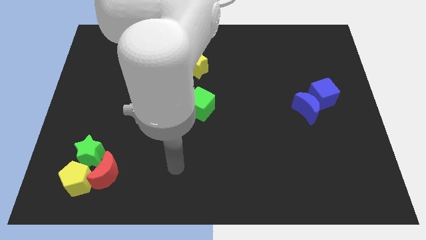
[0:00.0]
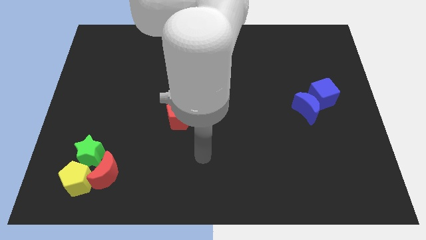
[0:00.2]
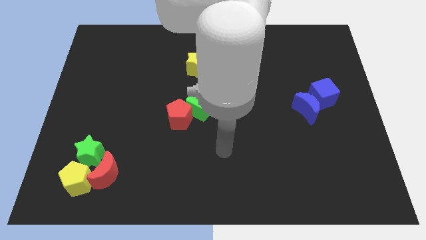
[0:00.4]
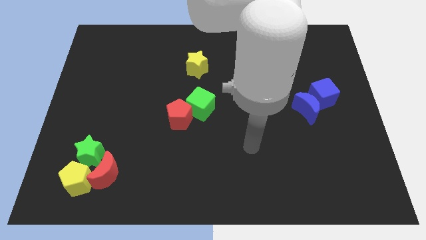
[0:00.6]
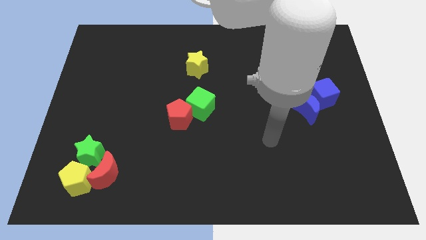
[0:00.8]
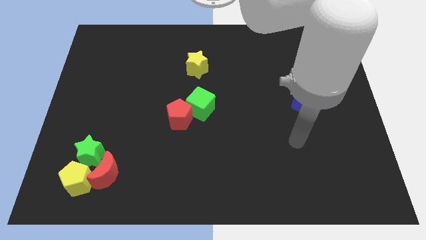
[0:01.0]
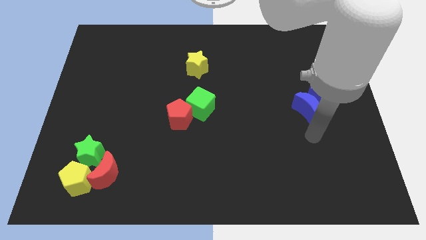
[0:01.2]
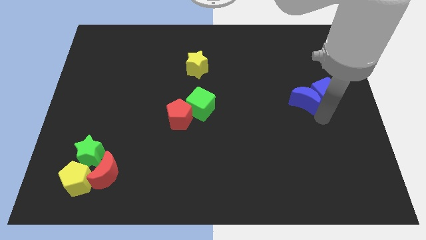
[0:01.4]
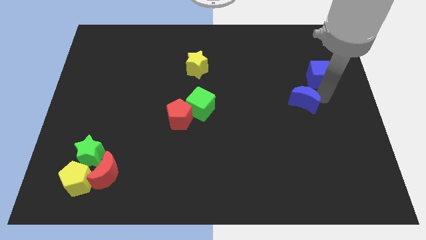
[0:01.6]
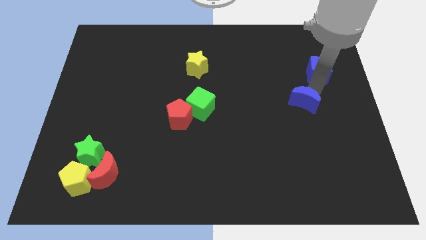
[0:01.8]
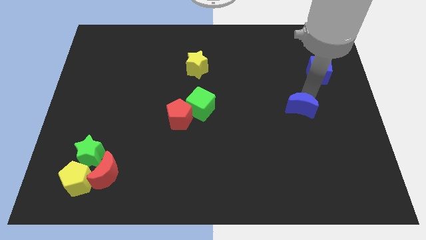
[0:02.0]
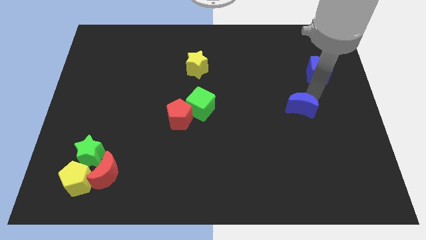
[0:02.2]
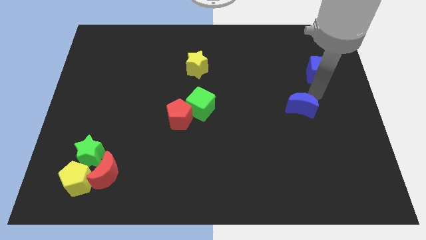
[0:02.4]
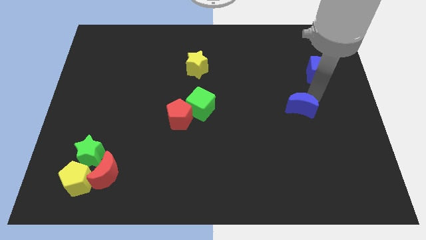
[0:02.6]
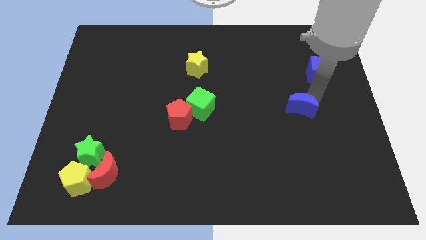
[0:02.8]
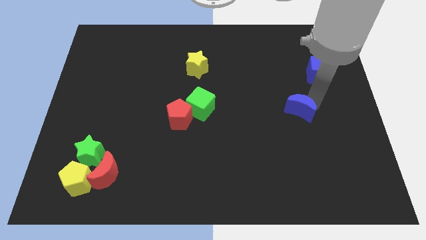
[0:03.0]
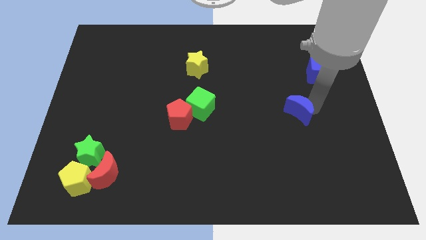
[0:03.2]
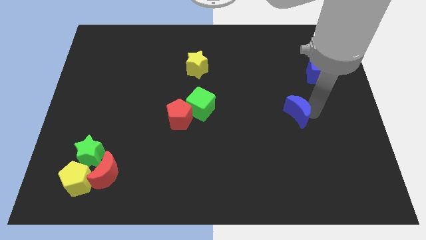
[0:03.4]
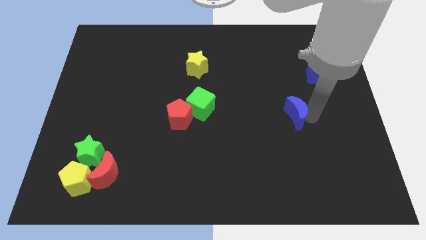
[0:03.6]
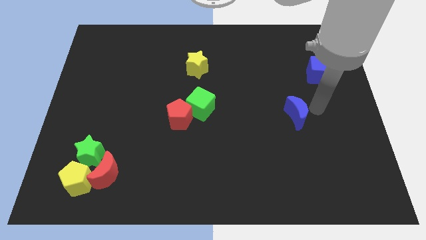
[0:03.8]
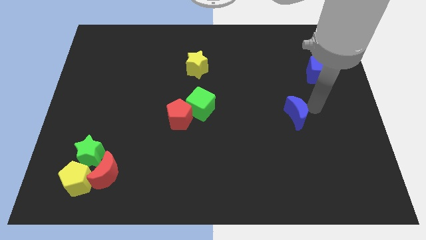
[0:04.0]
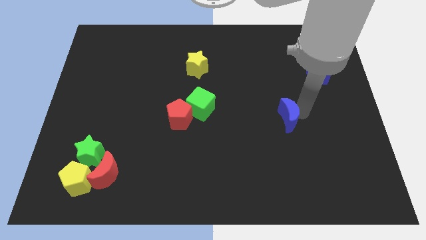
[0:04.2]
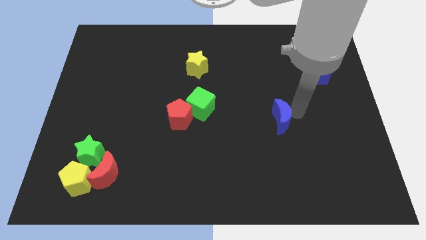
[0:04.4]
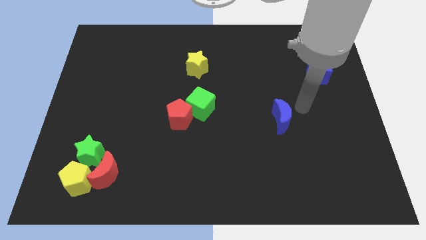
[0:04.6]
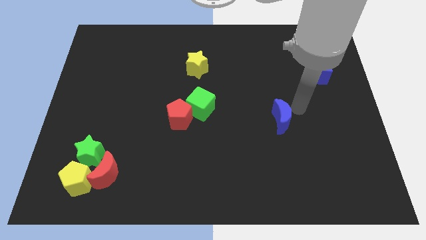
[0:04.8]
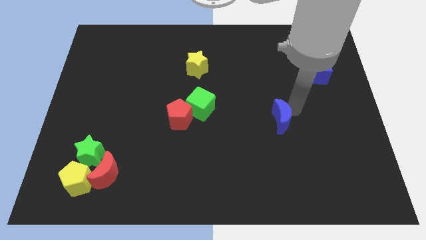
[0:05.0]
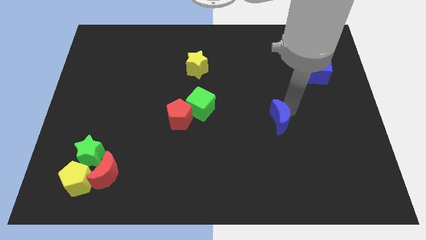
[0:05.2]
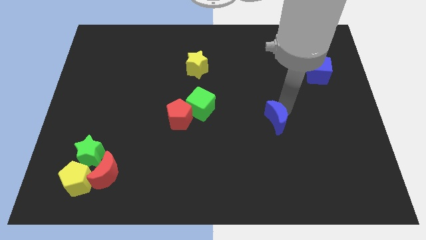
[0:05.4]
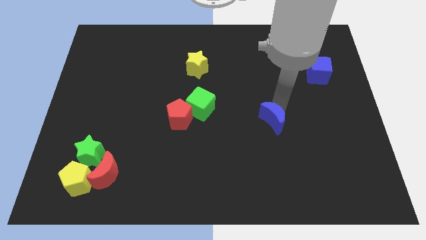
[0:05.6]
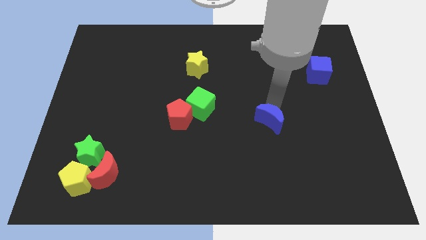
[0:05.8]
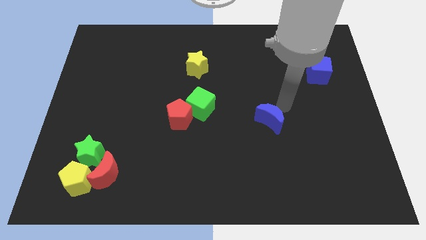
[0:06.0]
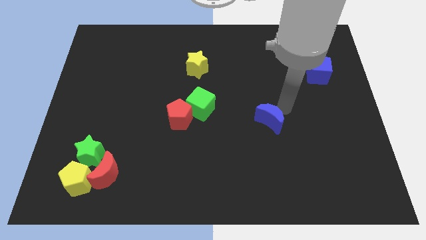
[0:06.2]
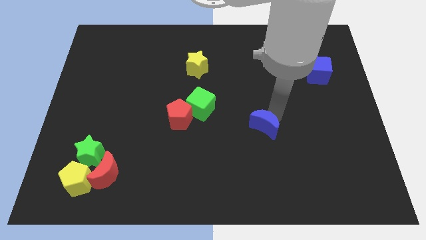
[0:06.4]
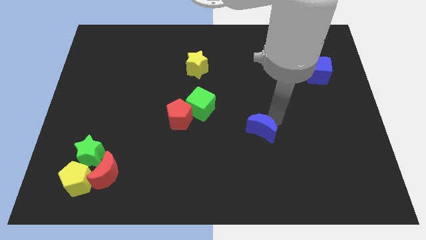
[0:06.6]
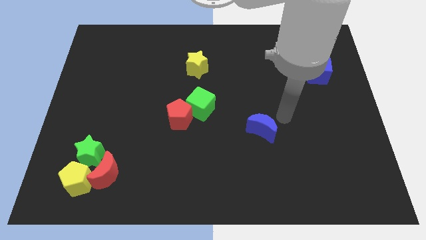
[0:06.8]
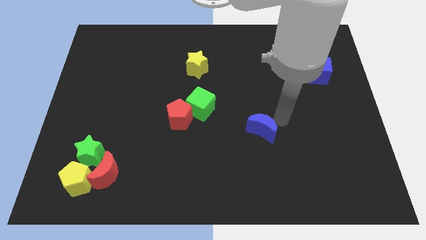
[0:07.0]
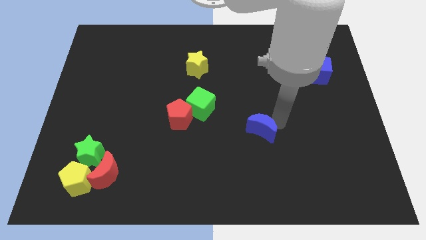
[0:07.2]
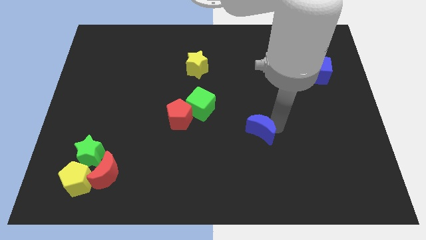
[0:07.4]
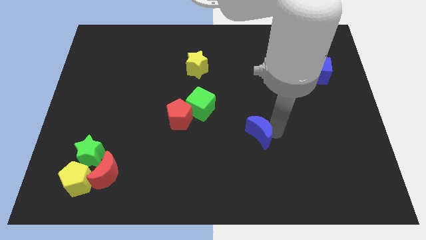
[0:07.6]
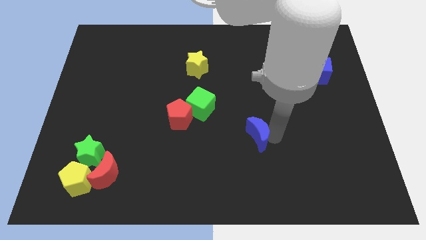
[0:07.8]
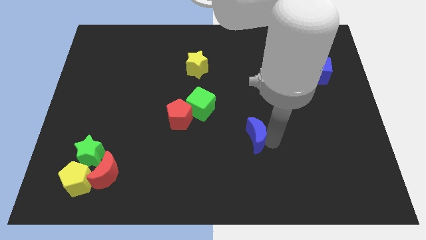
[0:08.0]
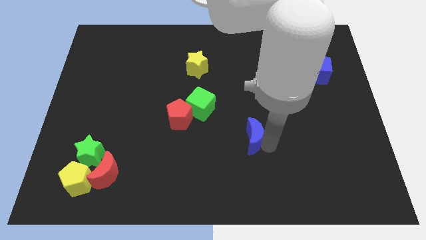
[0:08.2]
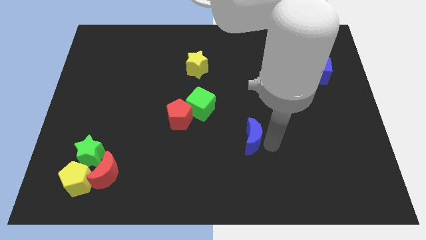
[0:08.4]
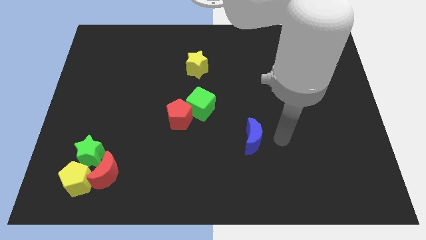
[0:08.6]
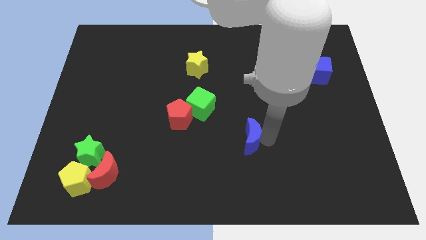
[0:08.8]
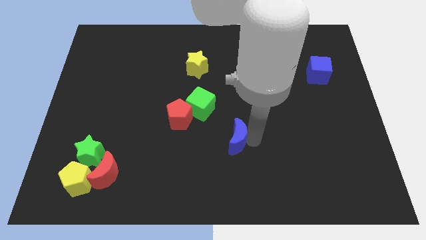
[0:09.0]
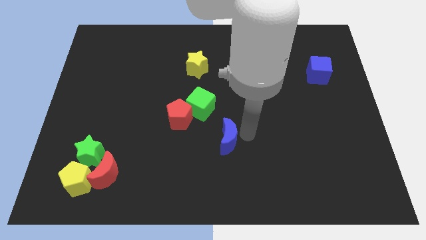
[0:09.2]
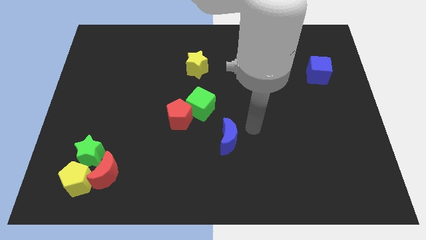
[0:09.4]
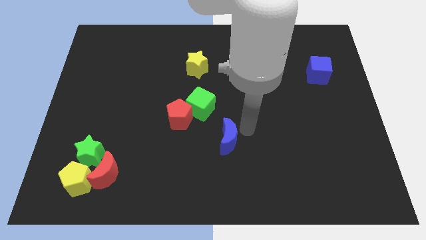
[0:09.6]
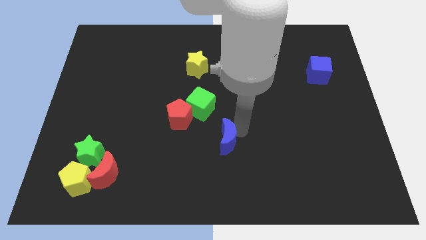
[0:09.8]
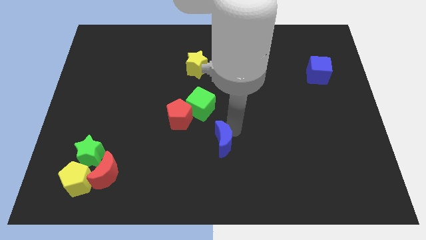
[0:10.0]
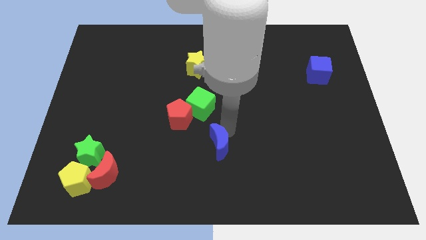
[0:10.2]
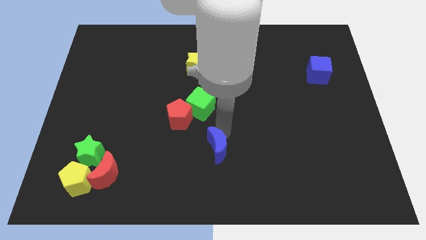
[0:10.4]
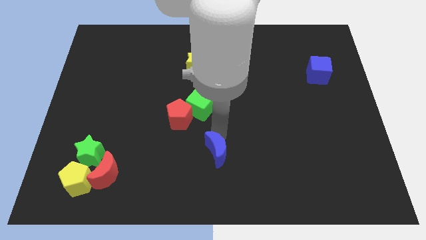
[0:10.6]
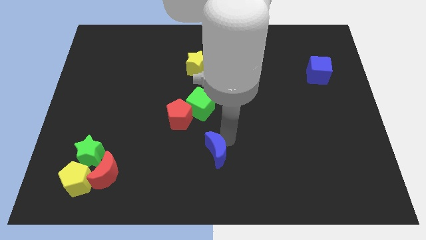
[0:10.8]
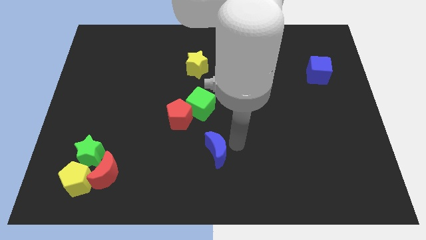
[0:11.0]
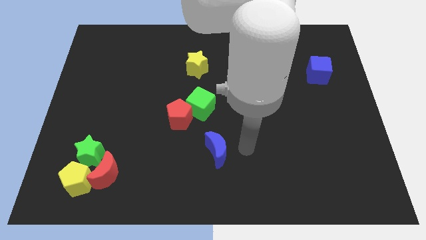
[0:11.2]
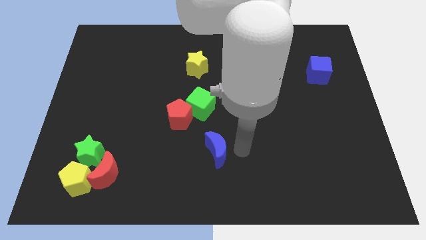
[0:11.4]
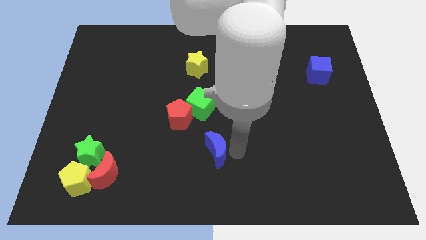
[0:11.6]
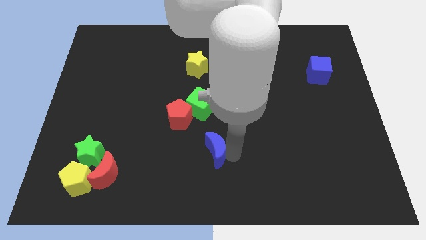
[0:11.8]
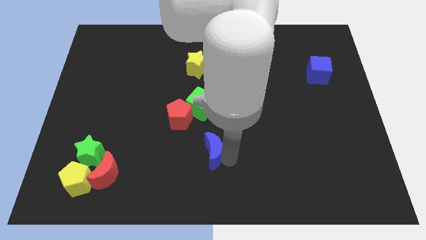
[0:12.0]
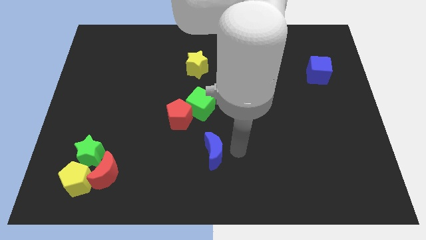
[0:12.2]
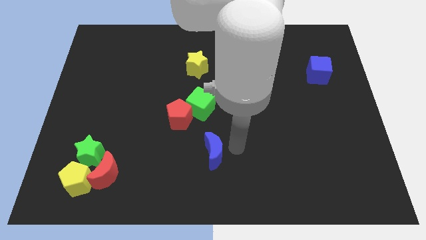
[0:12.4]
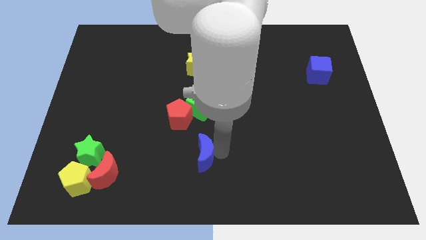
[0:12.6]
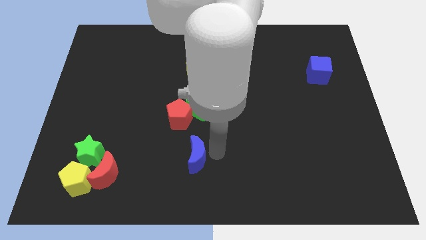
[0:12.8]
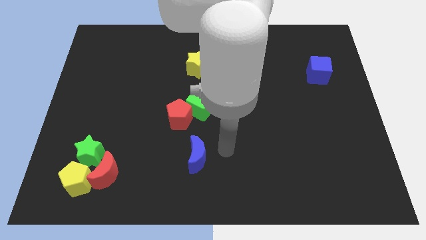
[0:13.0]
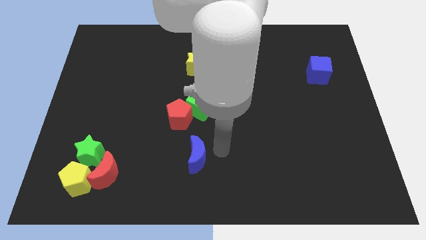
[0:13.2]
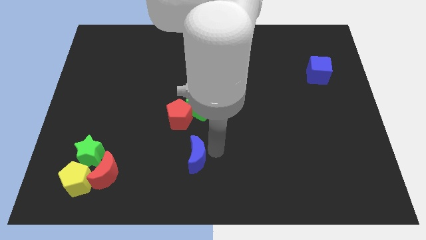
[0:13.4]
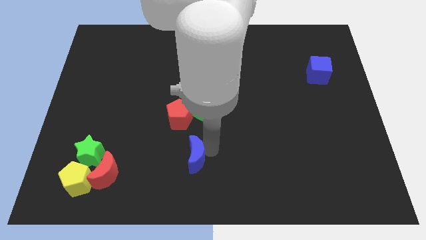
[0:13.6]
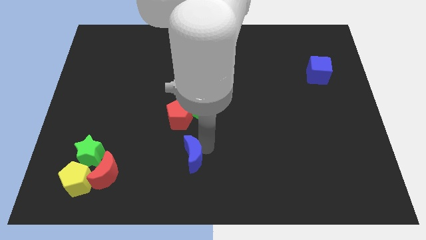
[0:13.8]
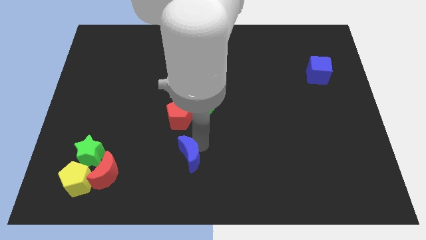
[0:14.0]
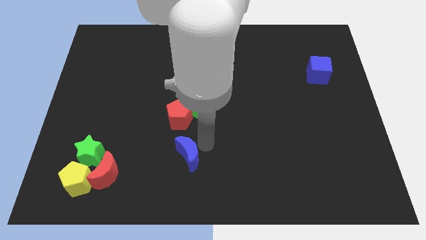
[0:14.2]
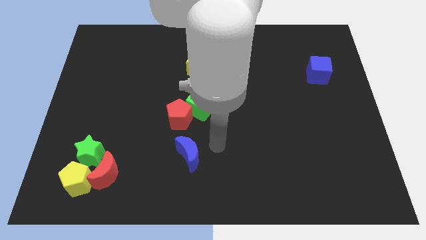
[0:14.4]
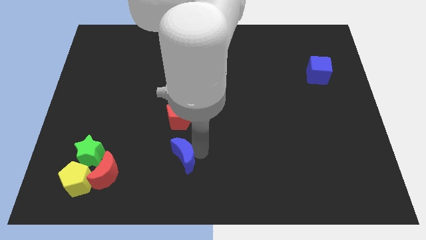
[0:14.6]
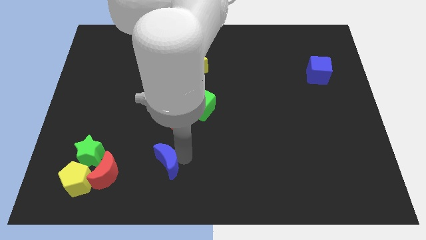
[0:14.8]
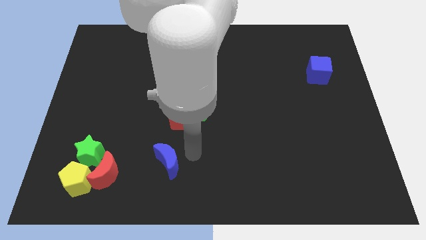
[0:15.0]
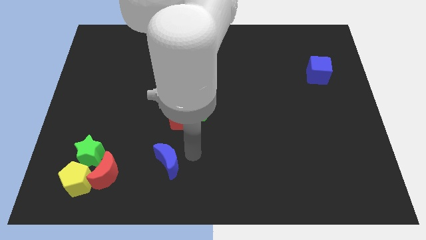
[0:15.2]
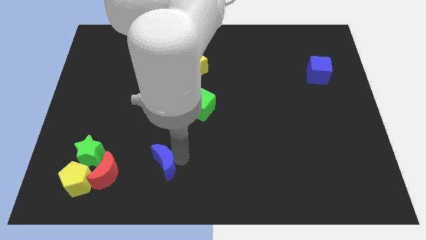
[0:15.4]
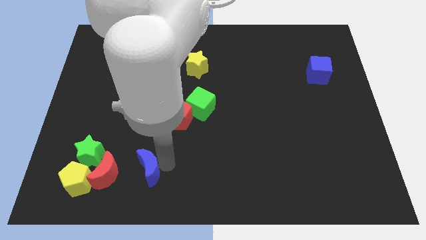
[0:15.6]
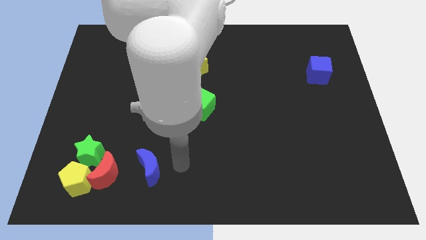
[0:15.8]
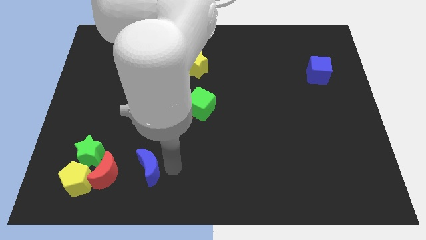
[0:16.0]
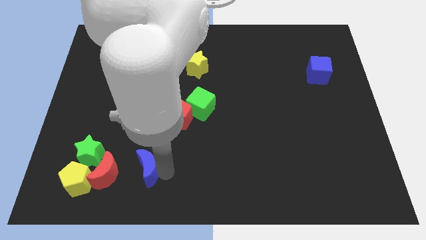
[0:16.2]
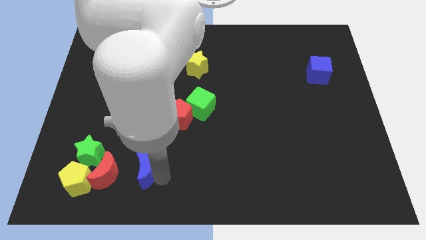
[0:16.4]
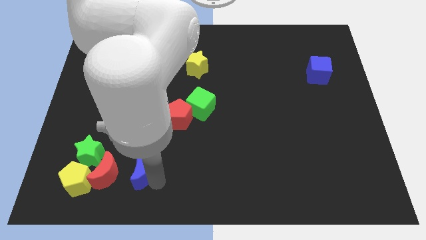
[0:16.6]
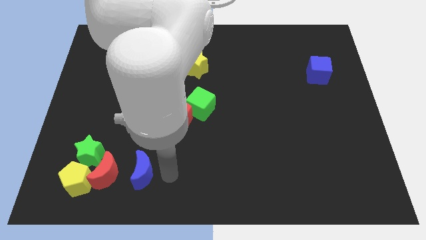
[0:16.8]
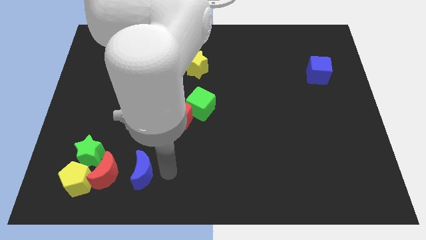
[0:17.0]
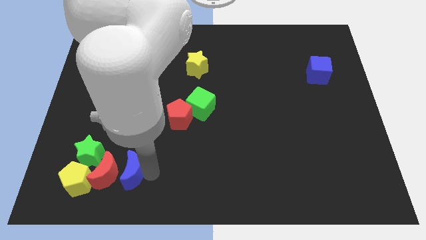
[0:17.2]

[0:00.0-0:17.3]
slide the blue moon to the red moon
